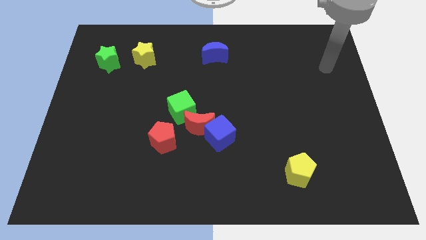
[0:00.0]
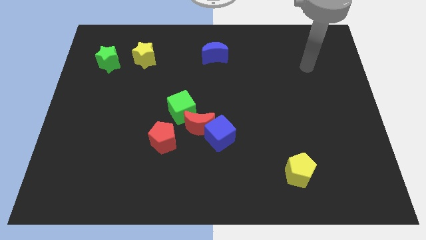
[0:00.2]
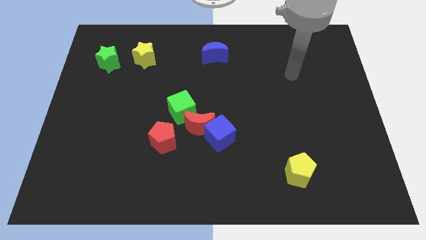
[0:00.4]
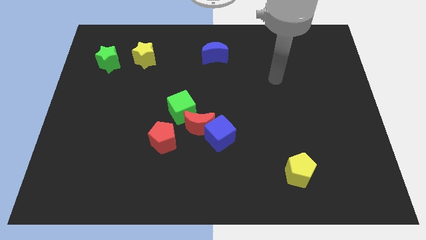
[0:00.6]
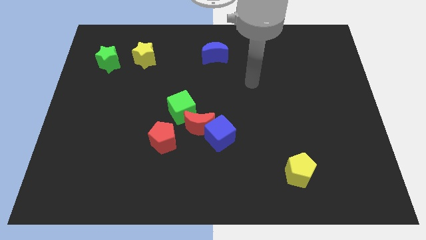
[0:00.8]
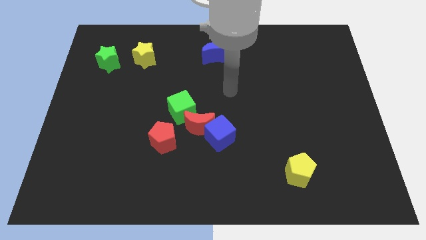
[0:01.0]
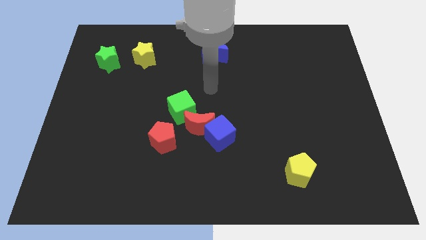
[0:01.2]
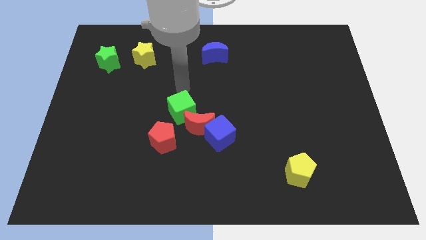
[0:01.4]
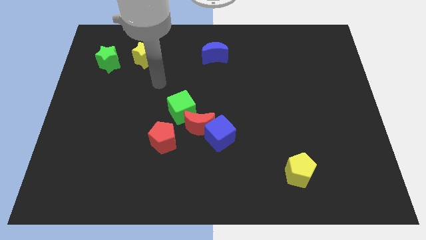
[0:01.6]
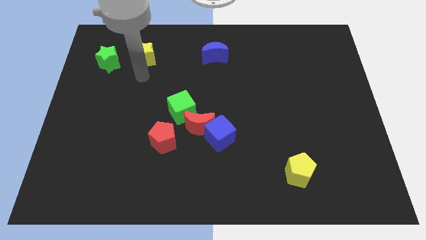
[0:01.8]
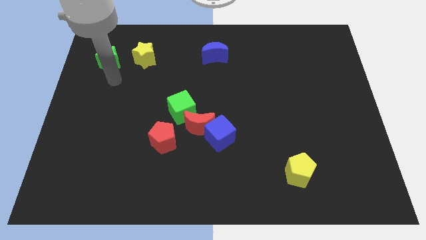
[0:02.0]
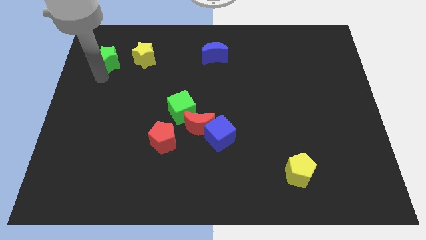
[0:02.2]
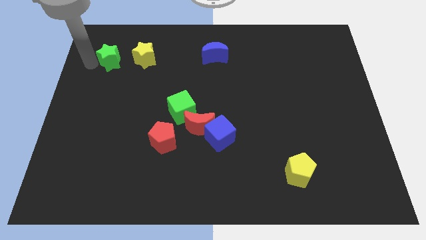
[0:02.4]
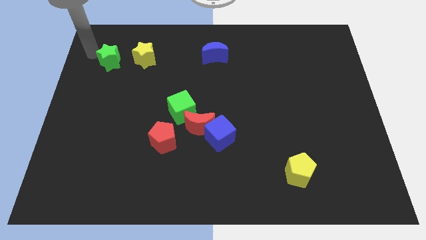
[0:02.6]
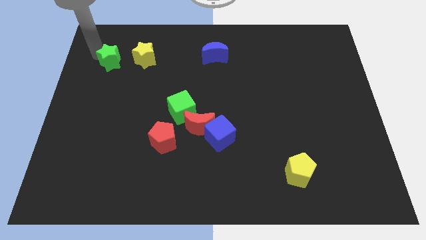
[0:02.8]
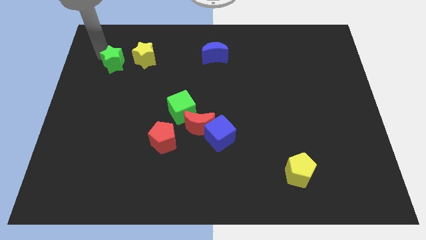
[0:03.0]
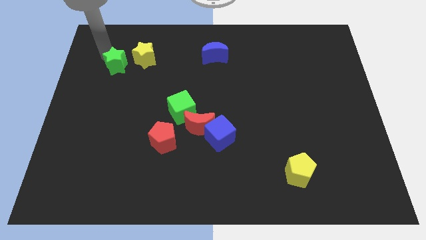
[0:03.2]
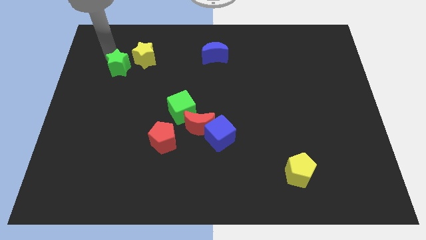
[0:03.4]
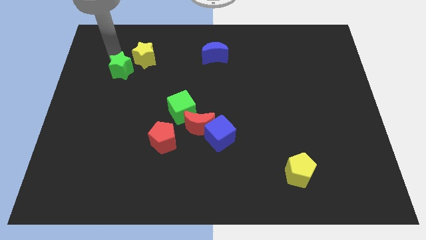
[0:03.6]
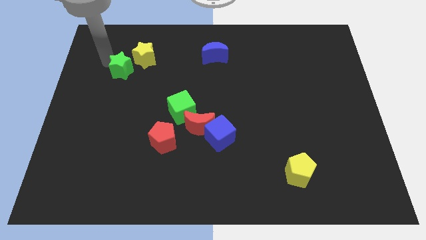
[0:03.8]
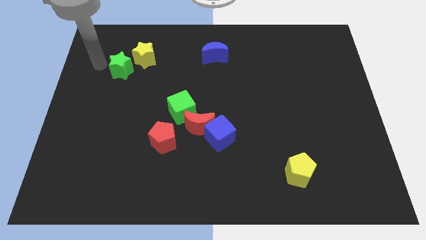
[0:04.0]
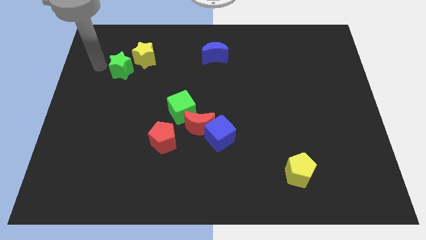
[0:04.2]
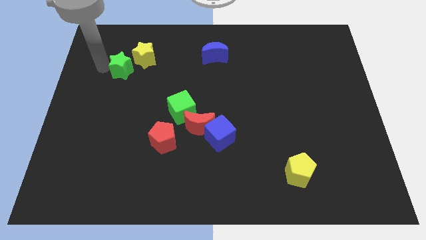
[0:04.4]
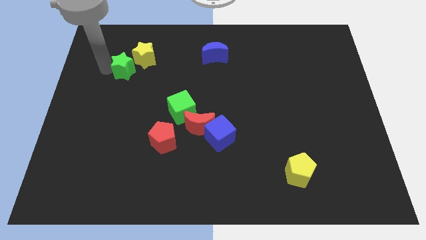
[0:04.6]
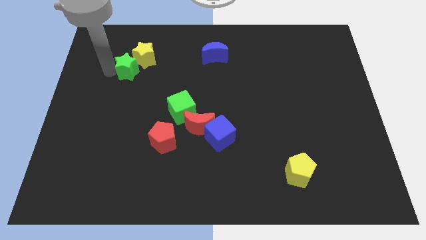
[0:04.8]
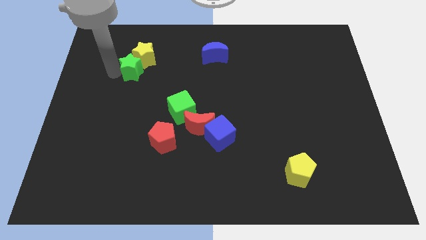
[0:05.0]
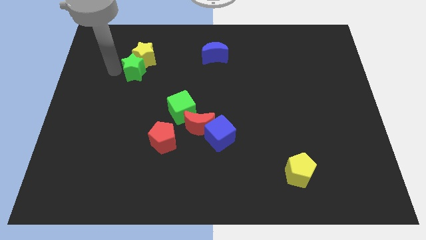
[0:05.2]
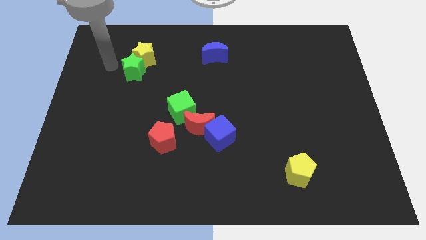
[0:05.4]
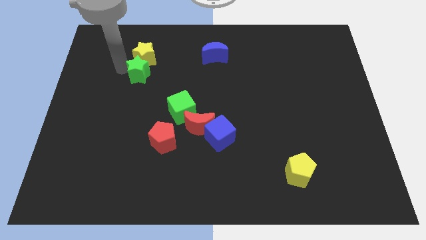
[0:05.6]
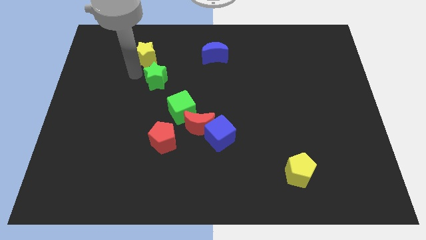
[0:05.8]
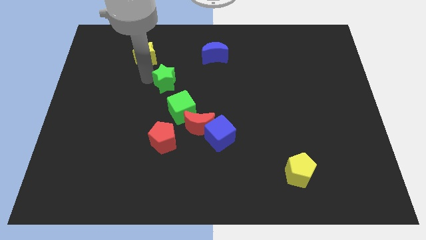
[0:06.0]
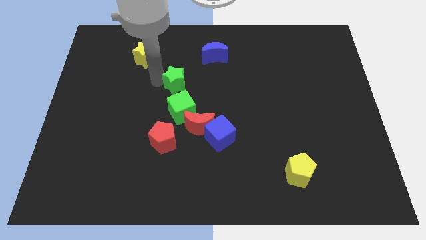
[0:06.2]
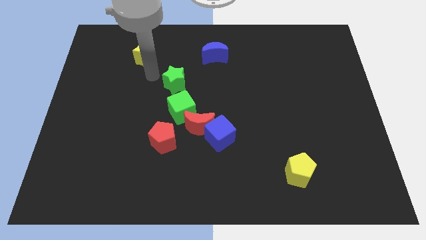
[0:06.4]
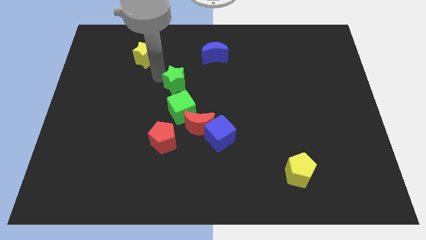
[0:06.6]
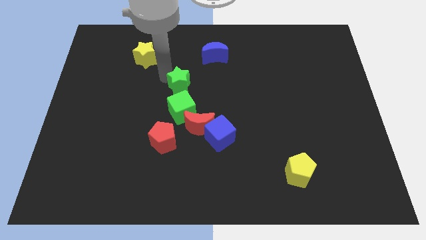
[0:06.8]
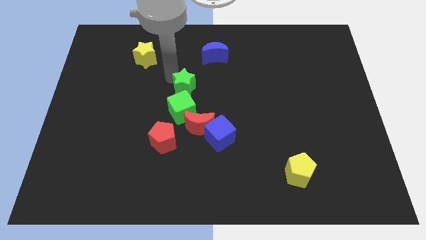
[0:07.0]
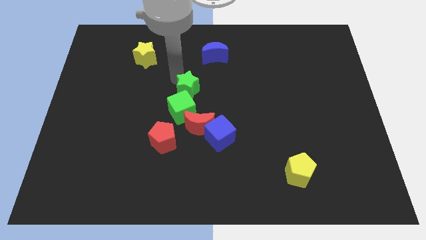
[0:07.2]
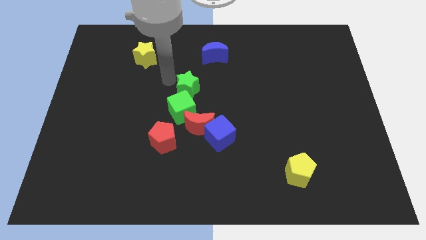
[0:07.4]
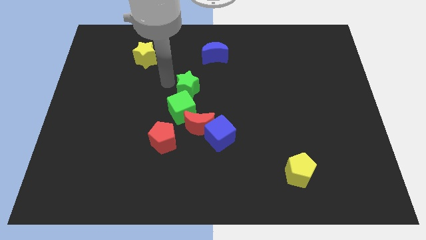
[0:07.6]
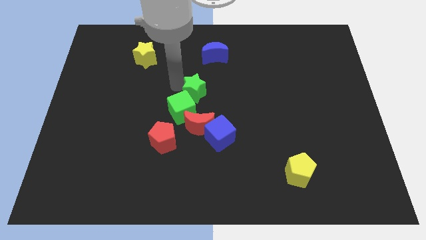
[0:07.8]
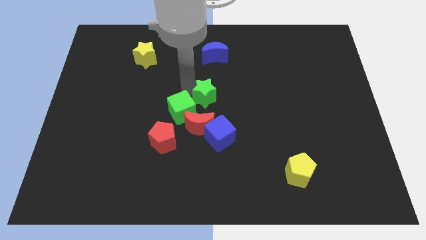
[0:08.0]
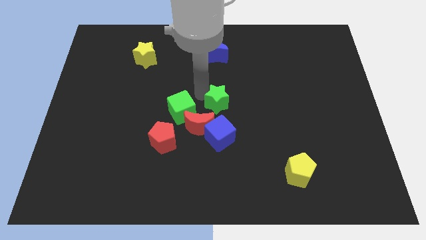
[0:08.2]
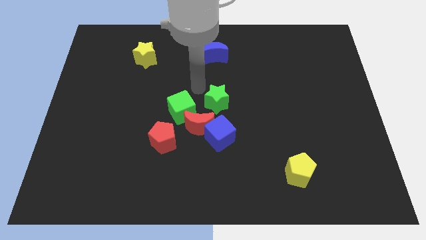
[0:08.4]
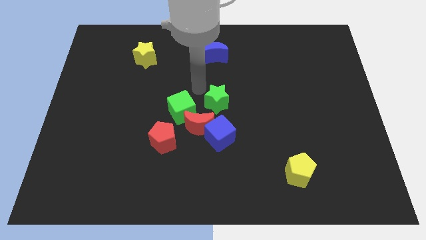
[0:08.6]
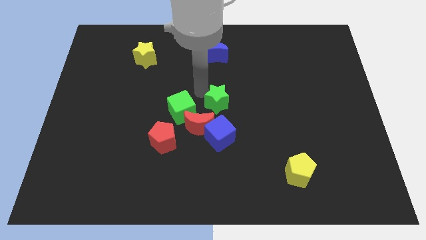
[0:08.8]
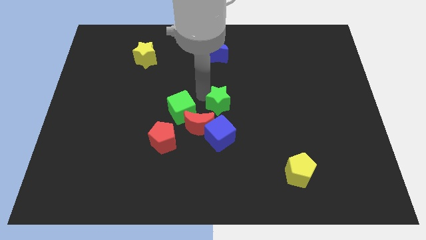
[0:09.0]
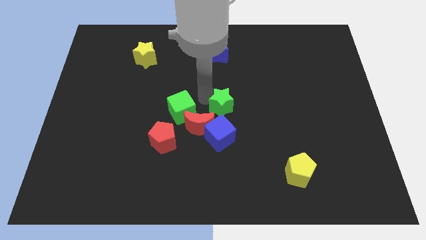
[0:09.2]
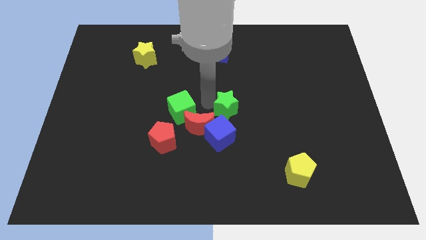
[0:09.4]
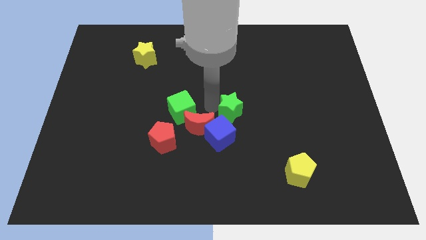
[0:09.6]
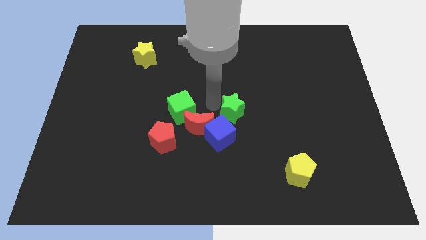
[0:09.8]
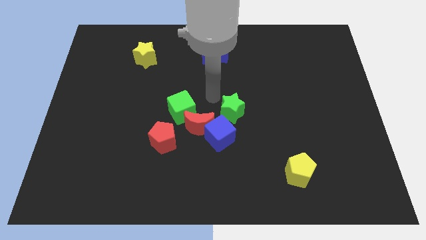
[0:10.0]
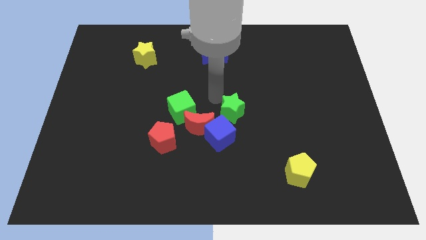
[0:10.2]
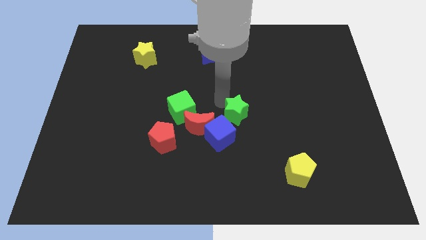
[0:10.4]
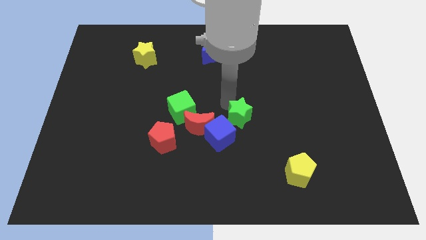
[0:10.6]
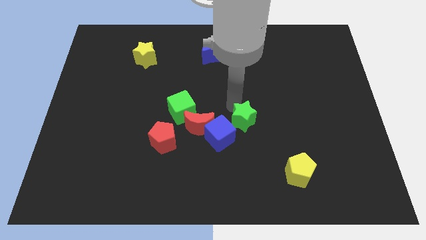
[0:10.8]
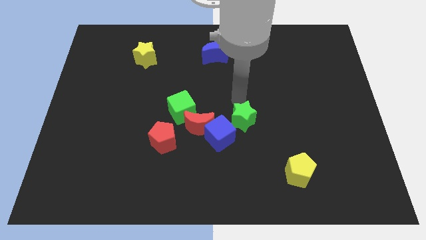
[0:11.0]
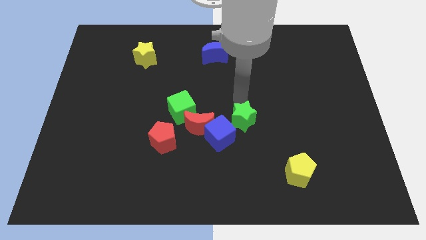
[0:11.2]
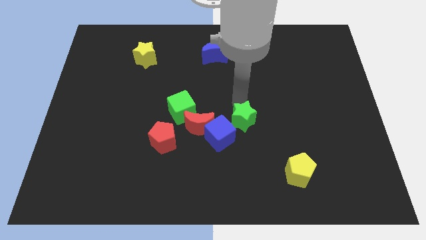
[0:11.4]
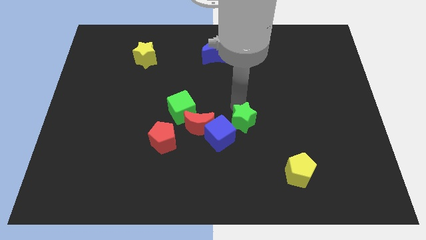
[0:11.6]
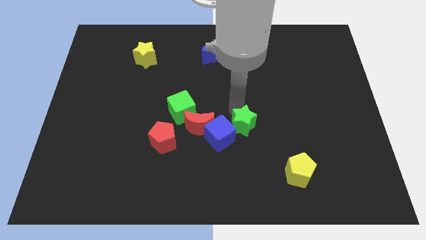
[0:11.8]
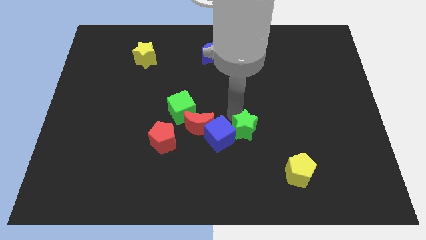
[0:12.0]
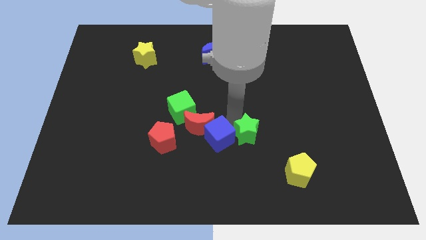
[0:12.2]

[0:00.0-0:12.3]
move the green star to the bottom right side of the blue cube

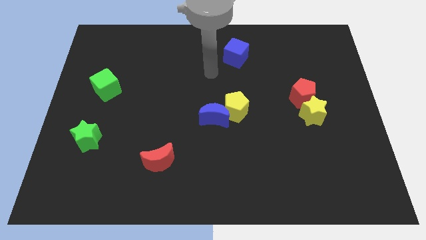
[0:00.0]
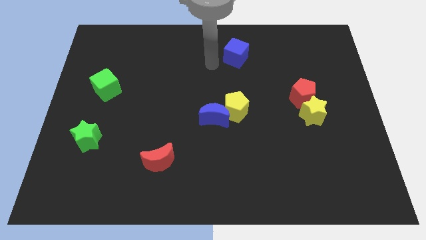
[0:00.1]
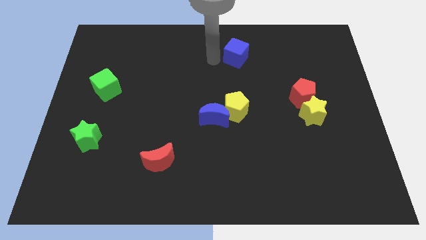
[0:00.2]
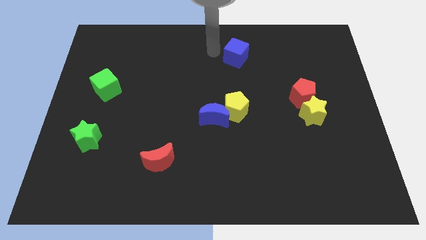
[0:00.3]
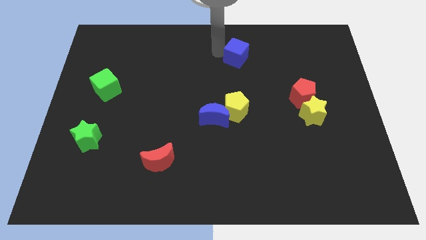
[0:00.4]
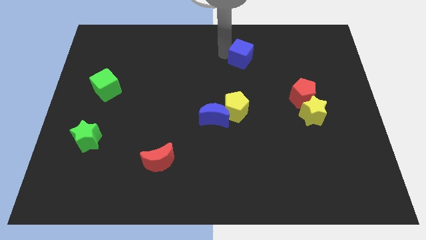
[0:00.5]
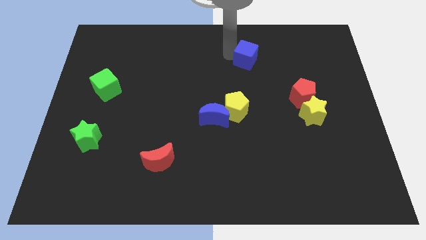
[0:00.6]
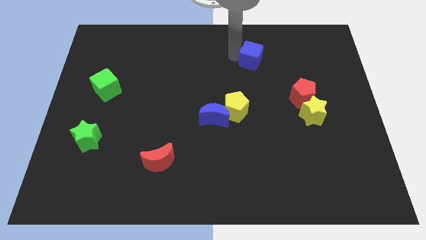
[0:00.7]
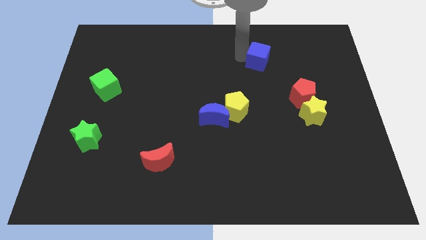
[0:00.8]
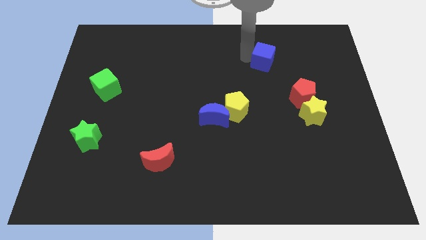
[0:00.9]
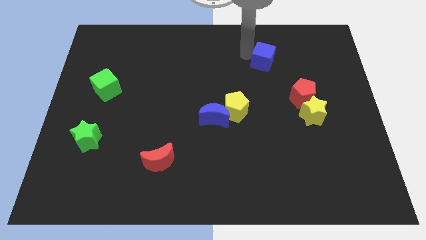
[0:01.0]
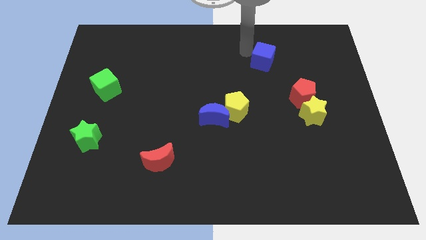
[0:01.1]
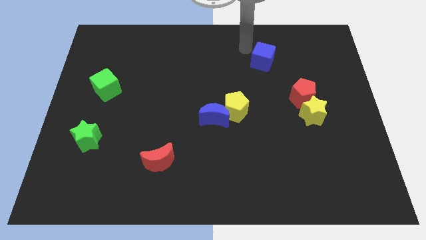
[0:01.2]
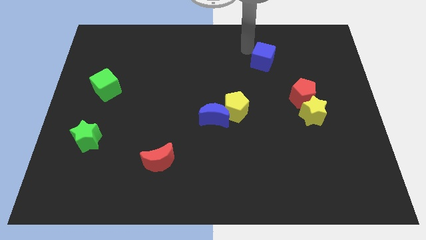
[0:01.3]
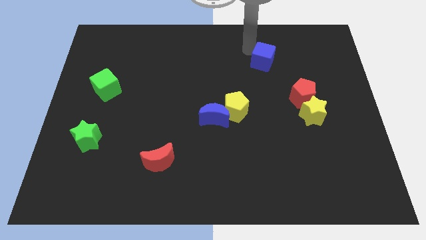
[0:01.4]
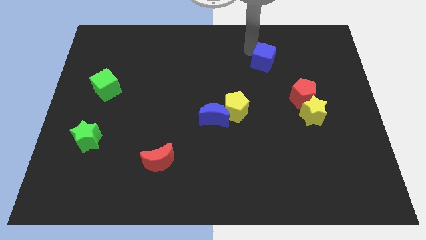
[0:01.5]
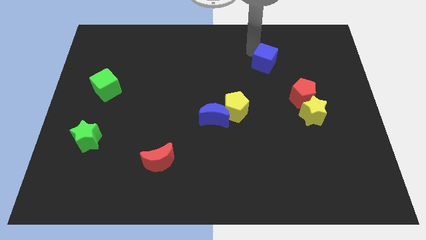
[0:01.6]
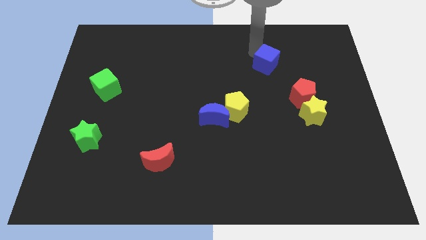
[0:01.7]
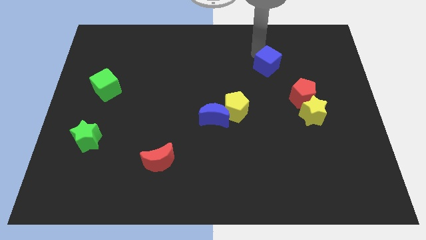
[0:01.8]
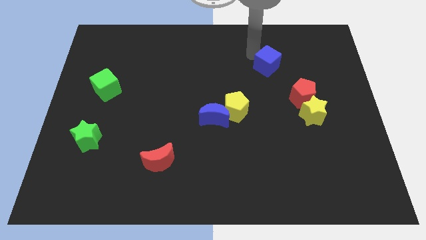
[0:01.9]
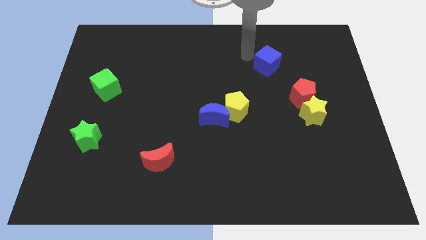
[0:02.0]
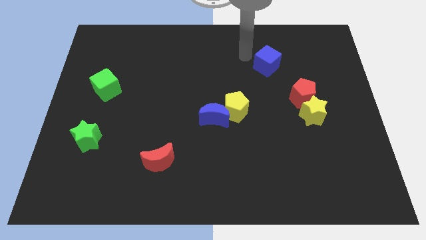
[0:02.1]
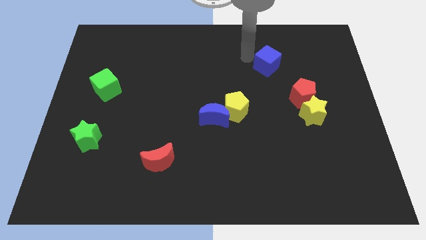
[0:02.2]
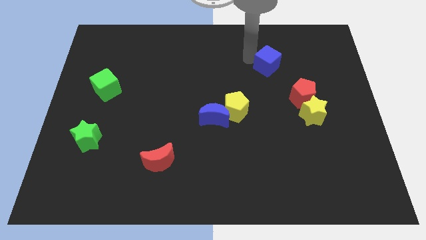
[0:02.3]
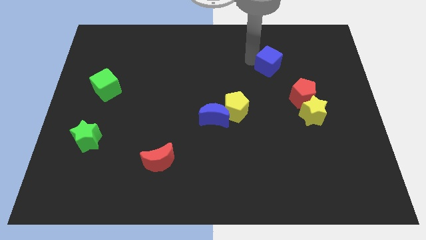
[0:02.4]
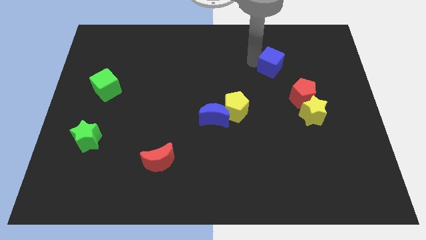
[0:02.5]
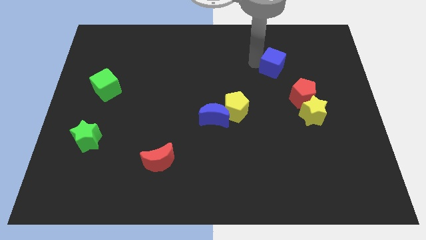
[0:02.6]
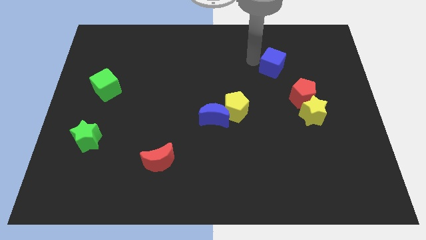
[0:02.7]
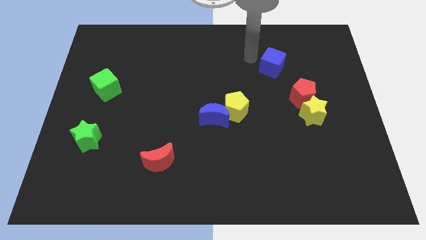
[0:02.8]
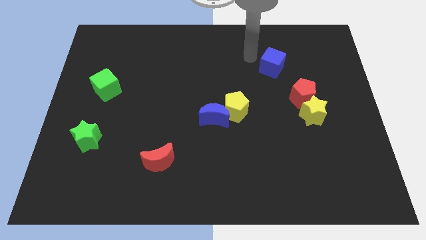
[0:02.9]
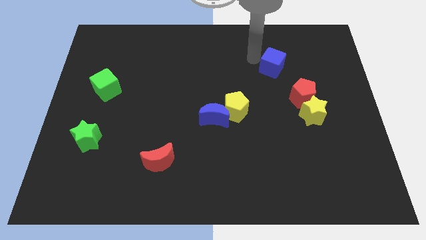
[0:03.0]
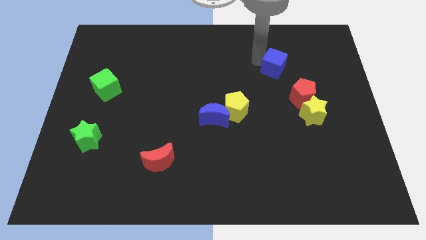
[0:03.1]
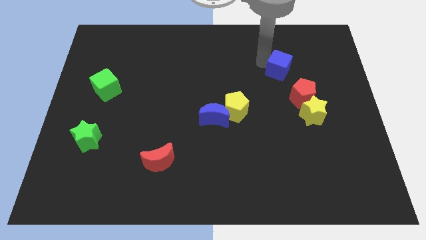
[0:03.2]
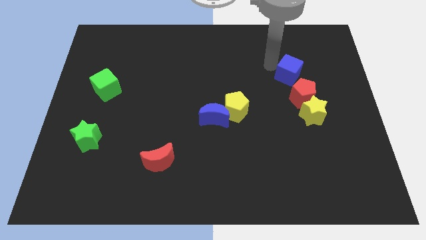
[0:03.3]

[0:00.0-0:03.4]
slide the blue cube to the top side of the yellow star
